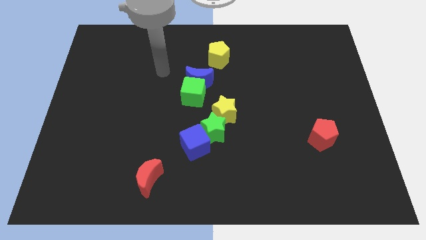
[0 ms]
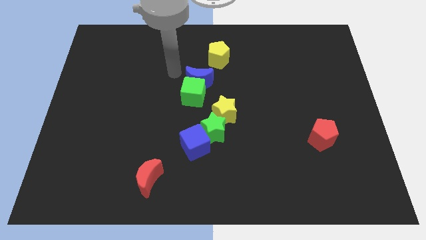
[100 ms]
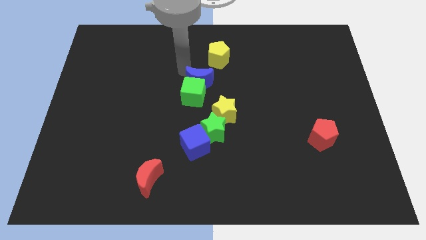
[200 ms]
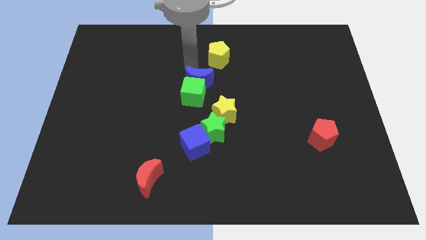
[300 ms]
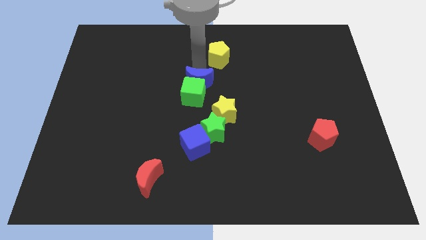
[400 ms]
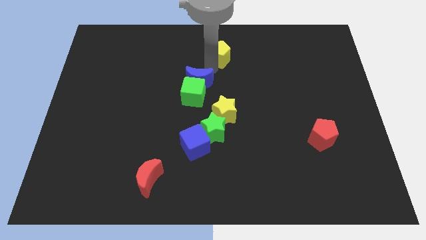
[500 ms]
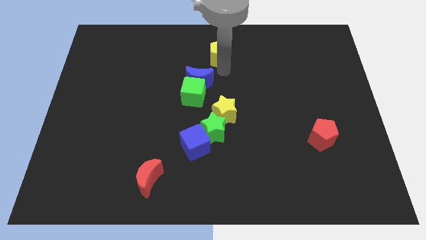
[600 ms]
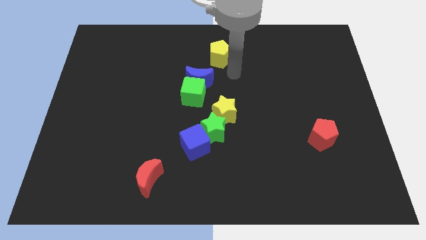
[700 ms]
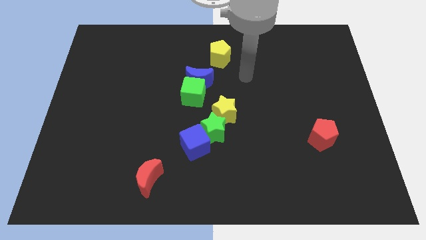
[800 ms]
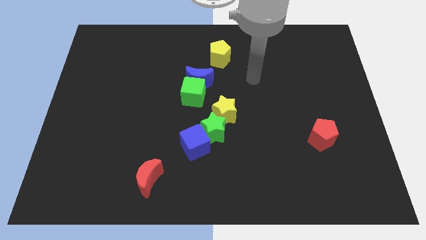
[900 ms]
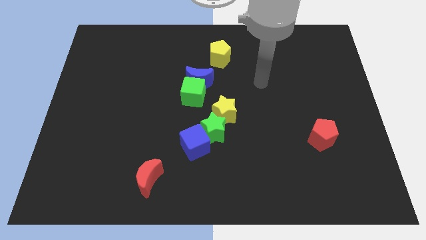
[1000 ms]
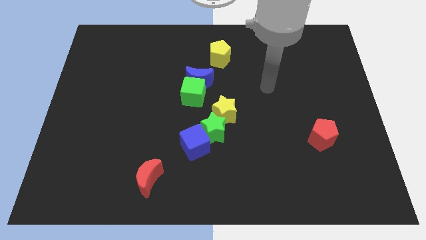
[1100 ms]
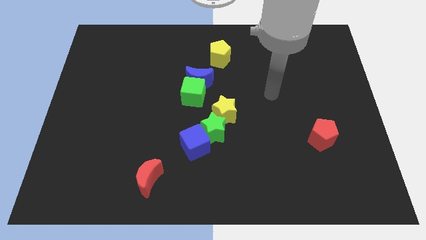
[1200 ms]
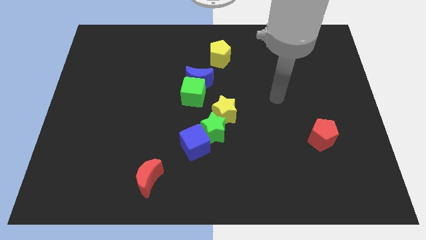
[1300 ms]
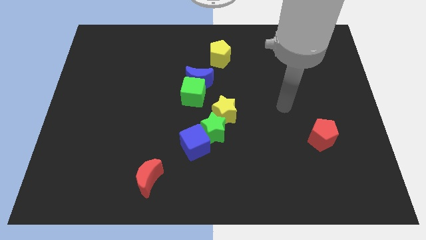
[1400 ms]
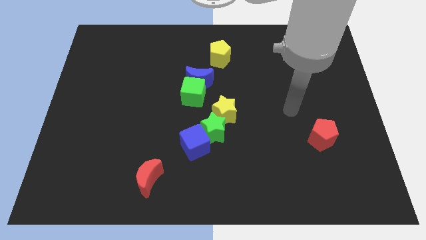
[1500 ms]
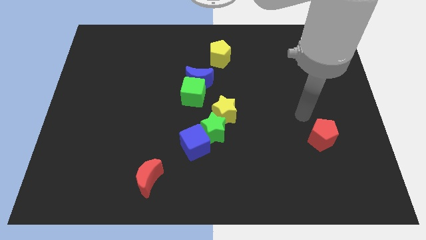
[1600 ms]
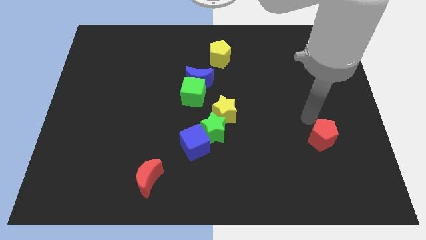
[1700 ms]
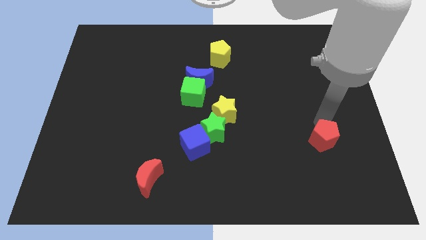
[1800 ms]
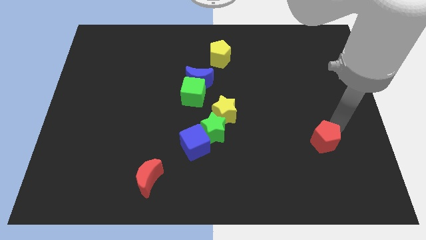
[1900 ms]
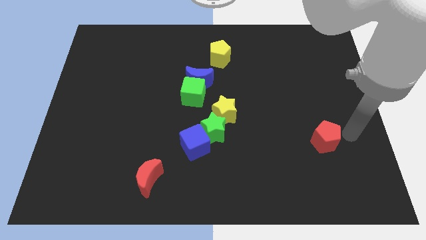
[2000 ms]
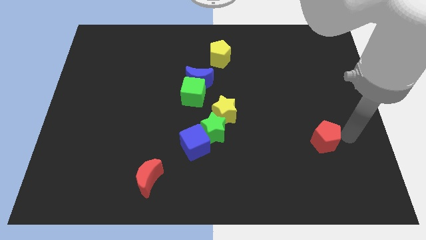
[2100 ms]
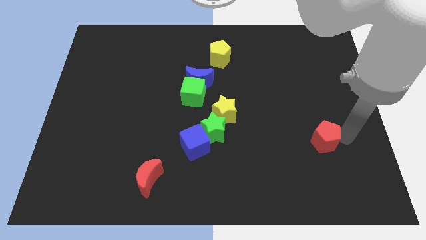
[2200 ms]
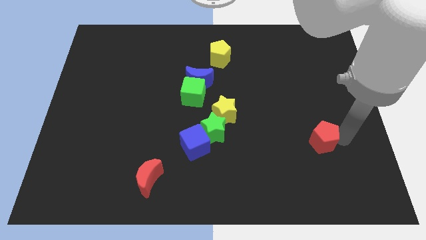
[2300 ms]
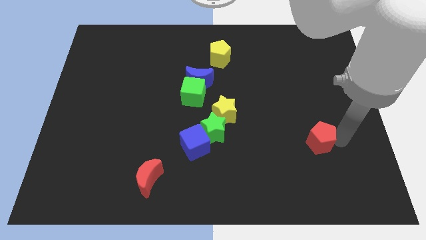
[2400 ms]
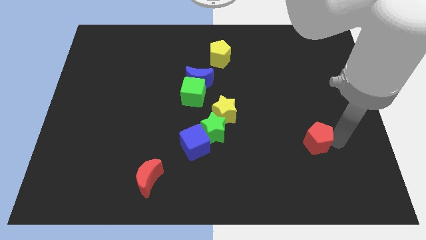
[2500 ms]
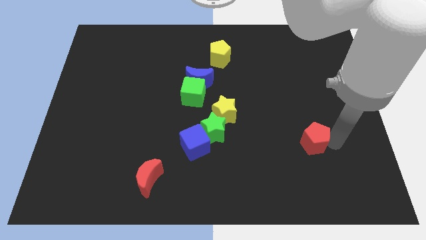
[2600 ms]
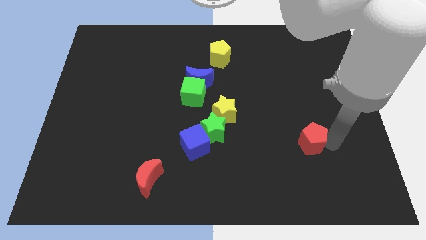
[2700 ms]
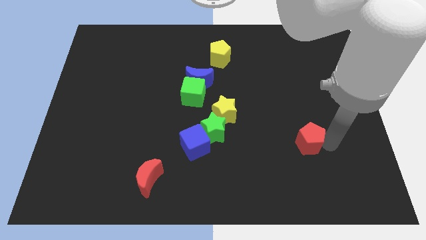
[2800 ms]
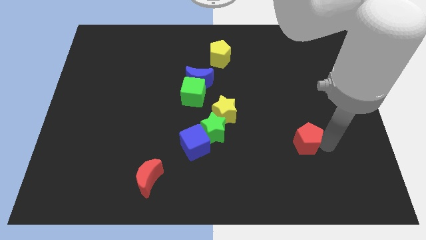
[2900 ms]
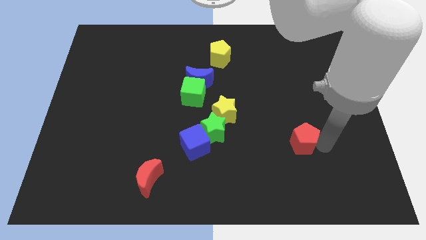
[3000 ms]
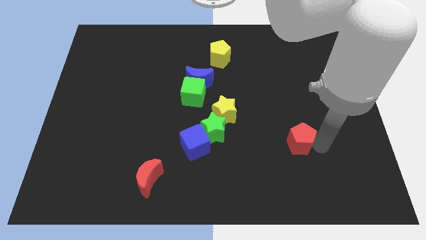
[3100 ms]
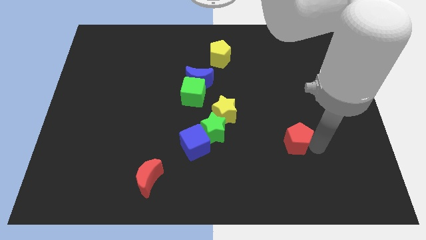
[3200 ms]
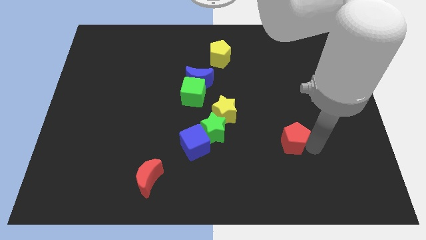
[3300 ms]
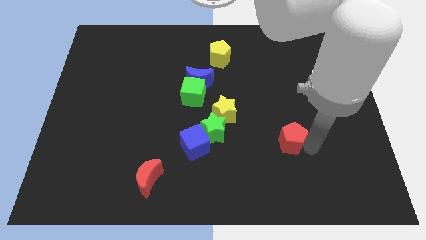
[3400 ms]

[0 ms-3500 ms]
slightly push the red pentagon to the left

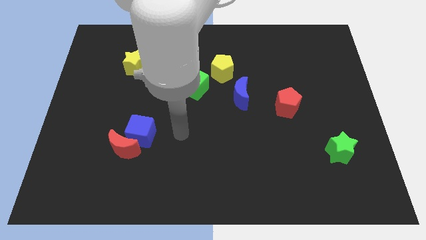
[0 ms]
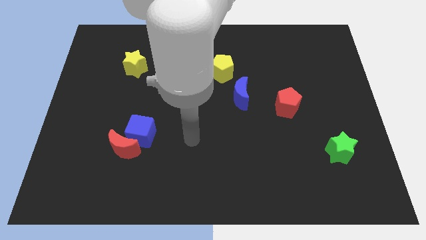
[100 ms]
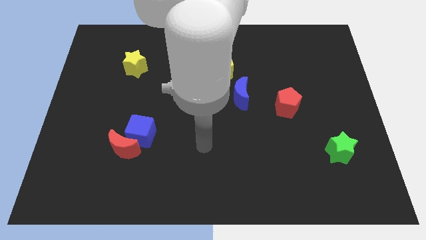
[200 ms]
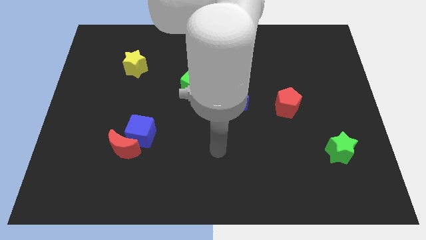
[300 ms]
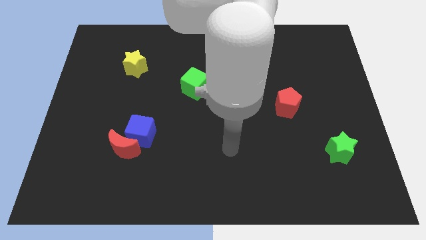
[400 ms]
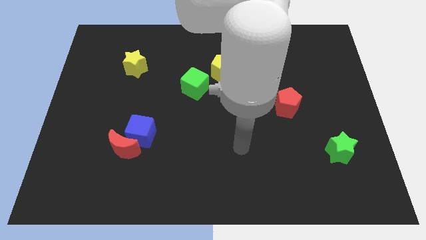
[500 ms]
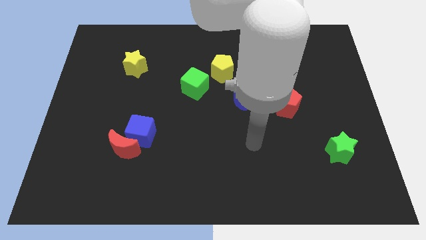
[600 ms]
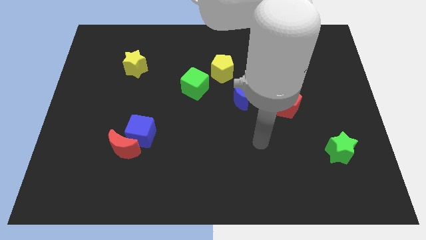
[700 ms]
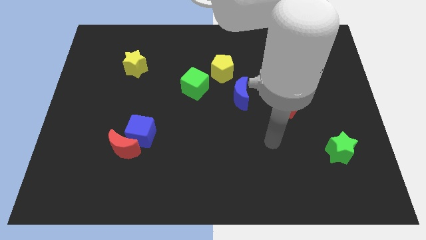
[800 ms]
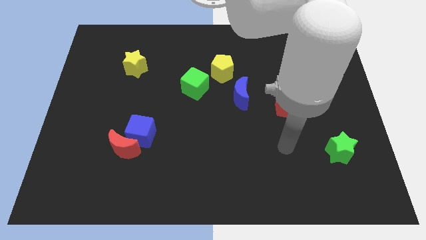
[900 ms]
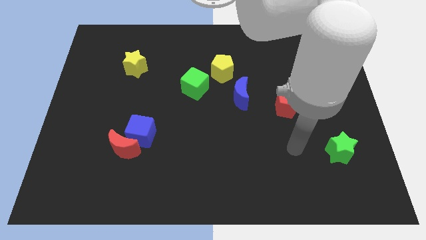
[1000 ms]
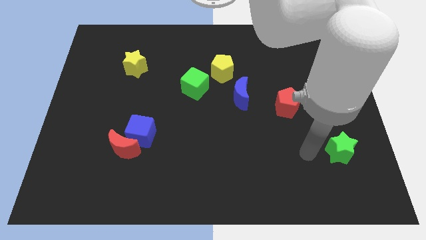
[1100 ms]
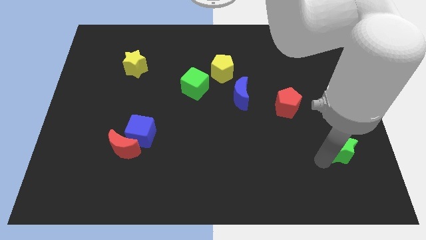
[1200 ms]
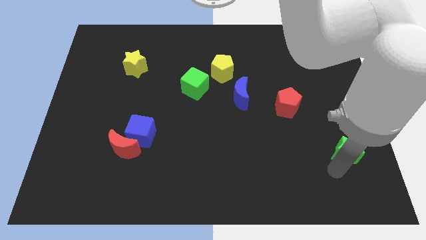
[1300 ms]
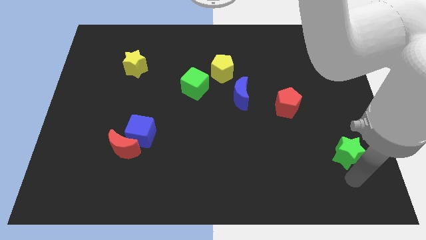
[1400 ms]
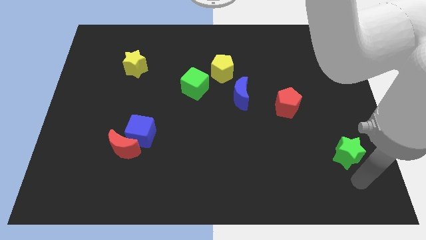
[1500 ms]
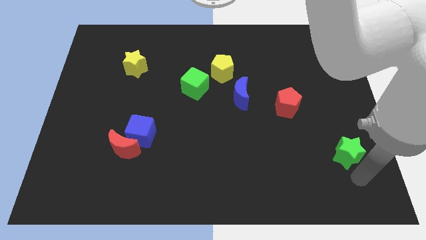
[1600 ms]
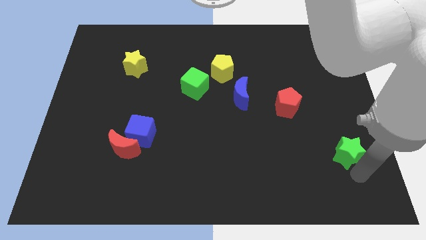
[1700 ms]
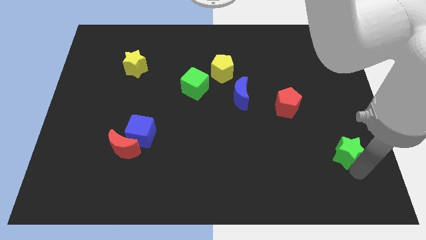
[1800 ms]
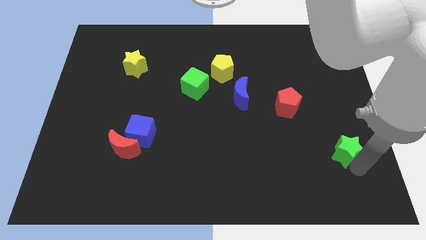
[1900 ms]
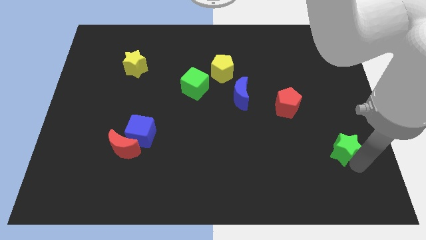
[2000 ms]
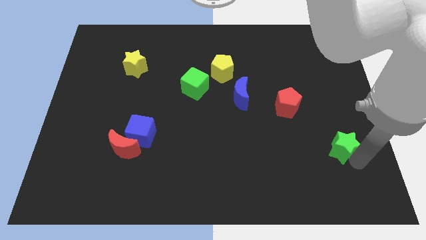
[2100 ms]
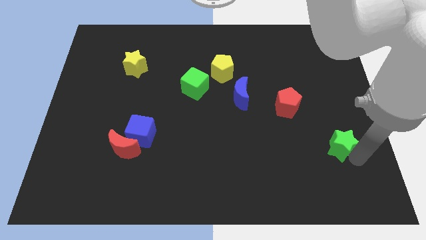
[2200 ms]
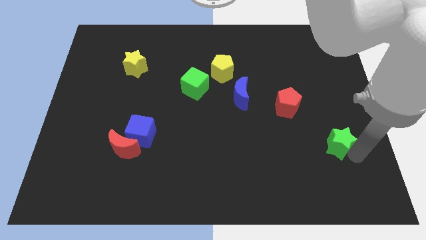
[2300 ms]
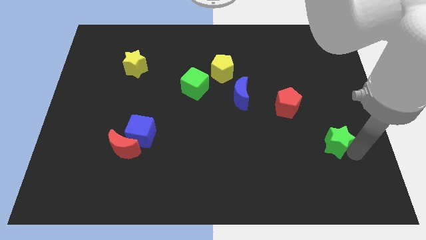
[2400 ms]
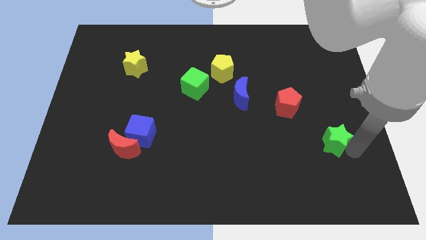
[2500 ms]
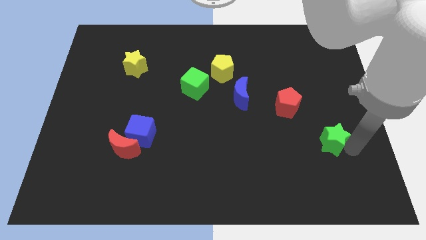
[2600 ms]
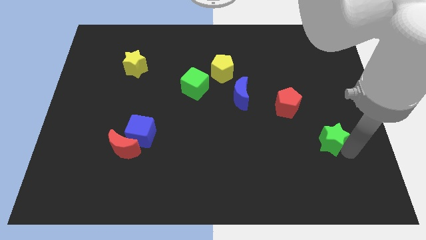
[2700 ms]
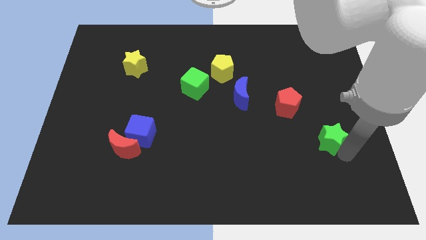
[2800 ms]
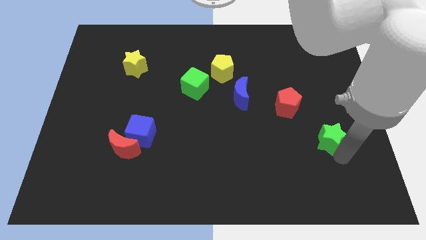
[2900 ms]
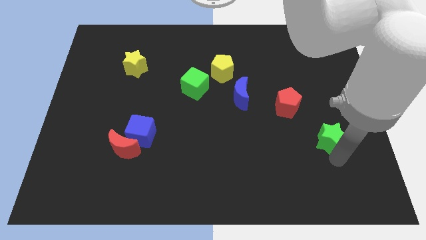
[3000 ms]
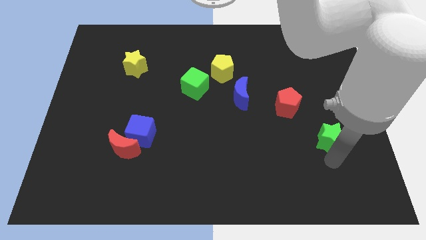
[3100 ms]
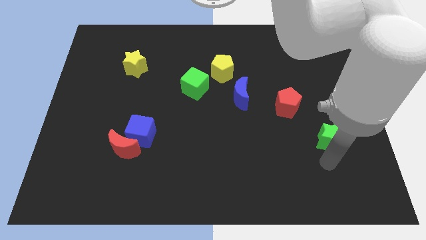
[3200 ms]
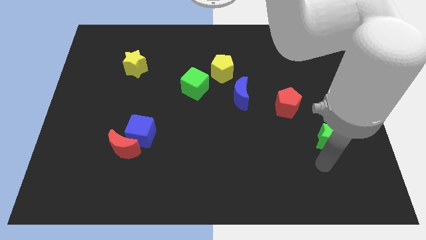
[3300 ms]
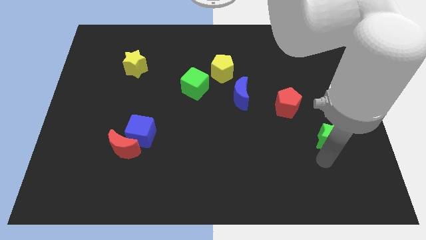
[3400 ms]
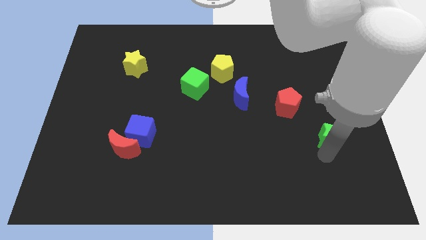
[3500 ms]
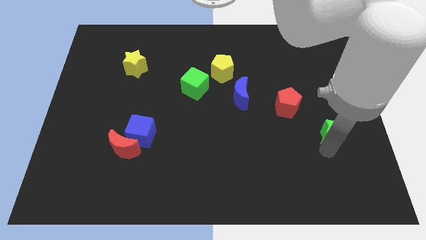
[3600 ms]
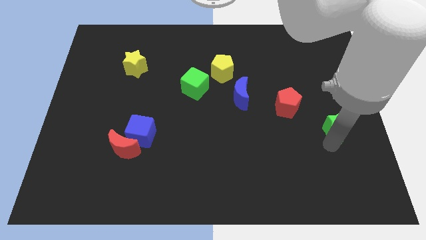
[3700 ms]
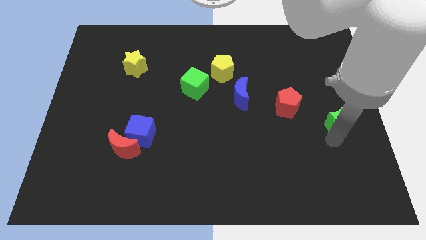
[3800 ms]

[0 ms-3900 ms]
push the green star upwards slightly

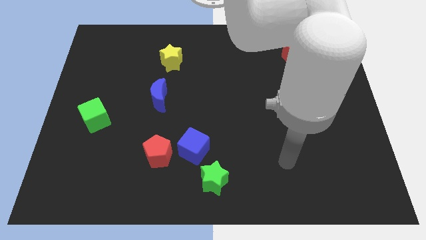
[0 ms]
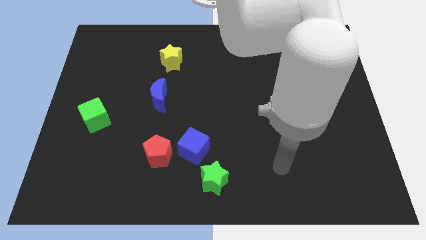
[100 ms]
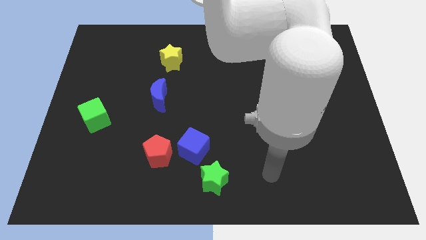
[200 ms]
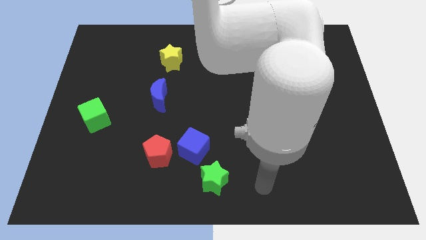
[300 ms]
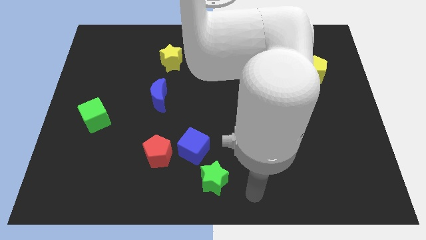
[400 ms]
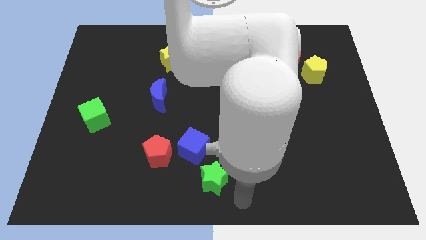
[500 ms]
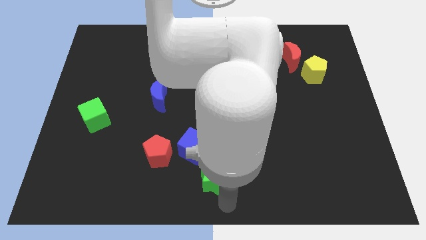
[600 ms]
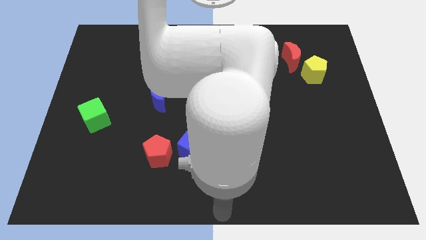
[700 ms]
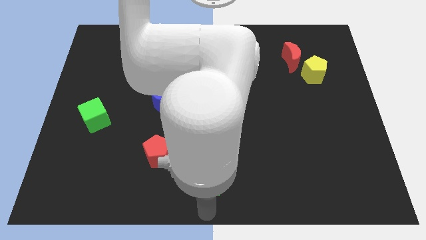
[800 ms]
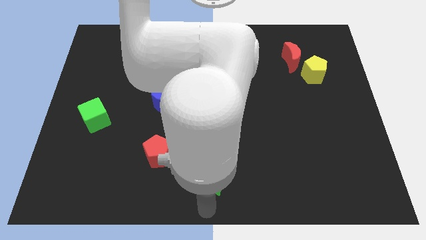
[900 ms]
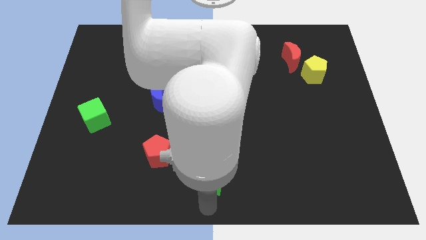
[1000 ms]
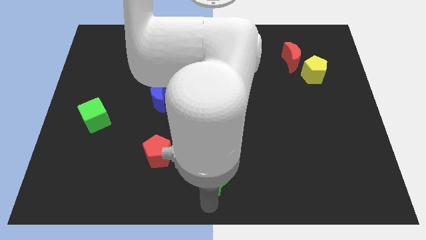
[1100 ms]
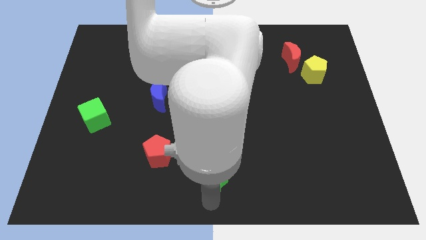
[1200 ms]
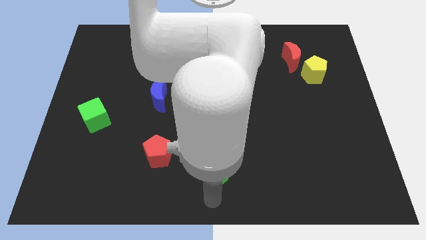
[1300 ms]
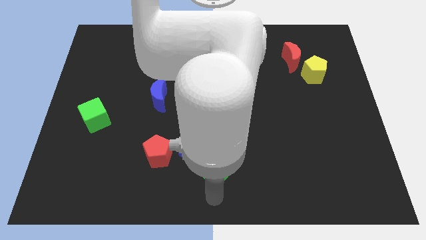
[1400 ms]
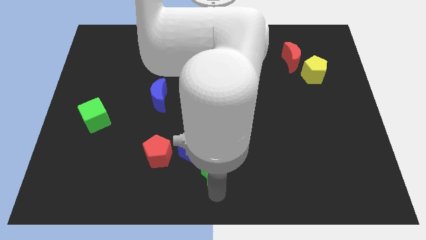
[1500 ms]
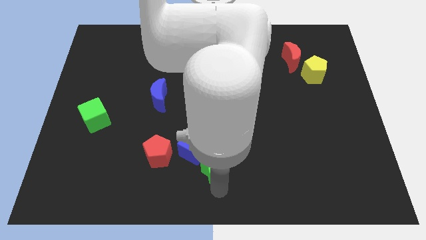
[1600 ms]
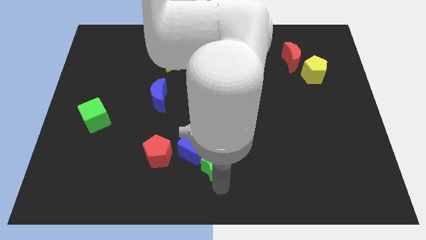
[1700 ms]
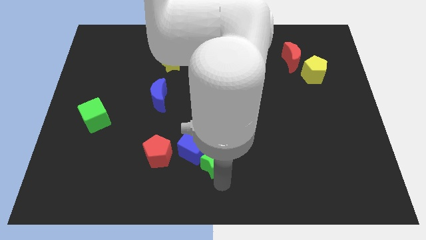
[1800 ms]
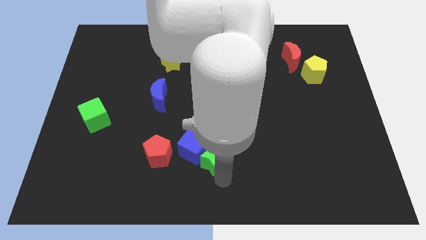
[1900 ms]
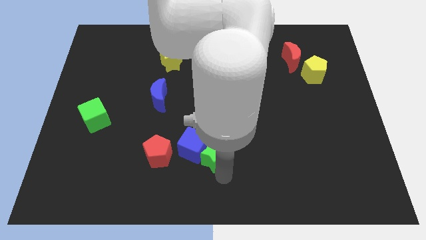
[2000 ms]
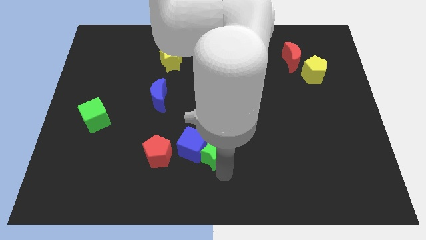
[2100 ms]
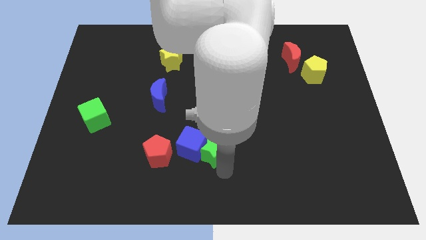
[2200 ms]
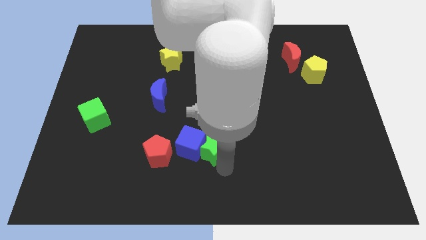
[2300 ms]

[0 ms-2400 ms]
slightly push the green star upwards
